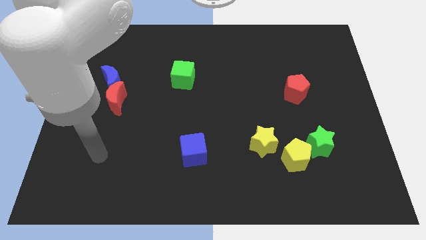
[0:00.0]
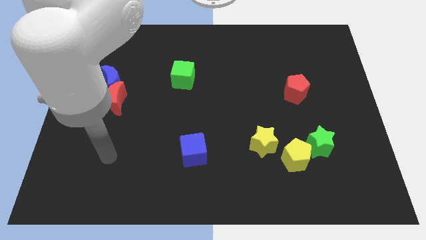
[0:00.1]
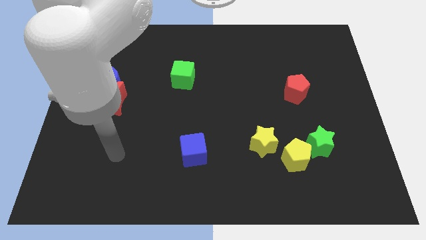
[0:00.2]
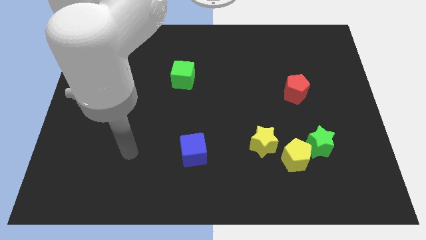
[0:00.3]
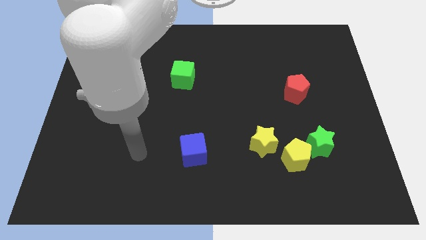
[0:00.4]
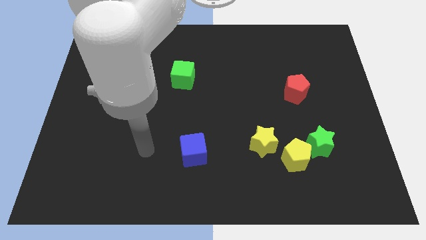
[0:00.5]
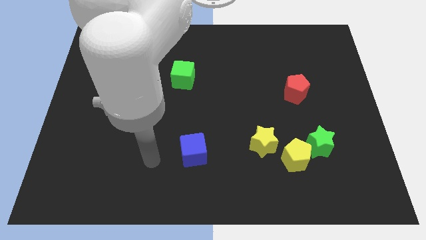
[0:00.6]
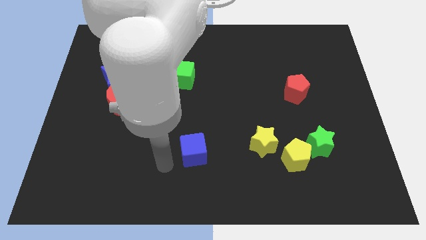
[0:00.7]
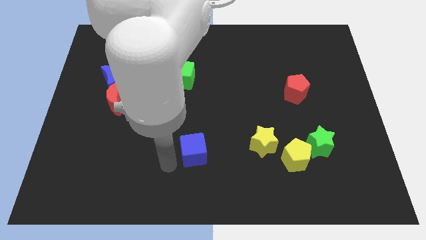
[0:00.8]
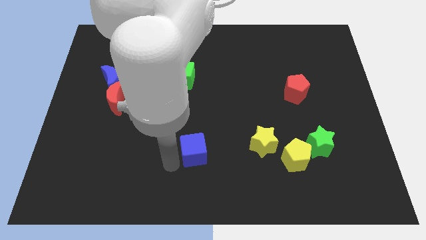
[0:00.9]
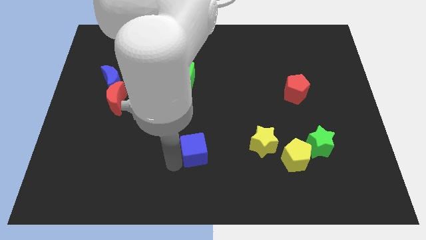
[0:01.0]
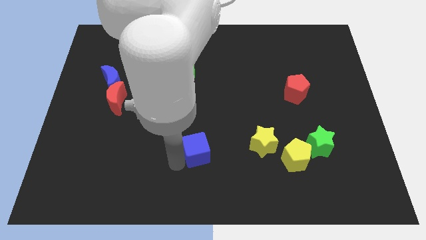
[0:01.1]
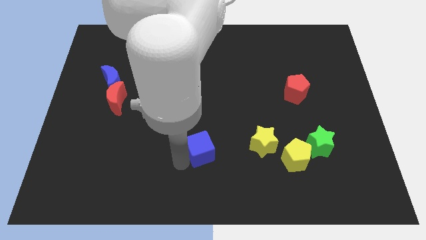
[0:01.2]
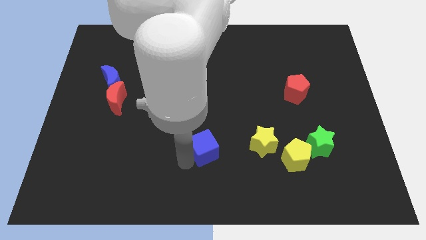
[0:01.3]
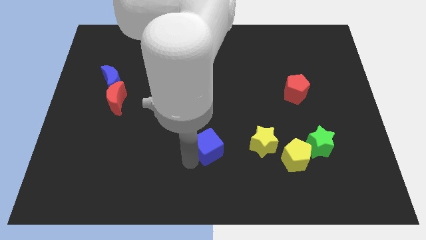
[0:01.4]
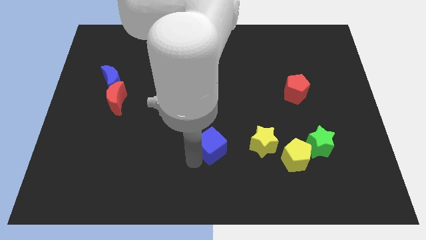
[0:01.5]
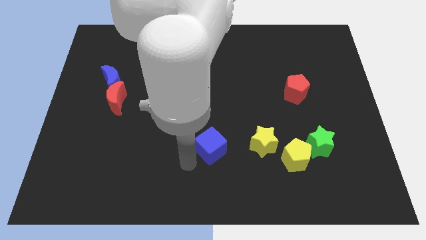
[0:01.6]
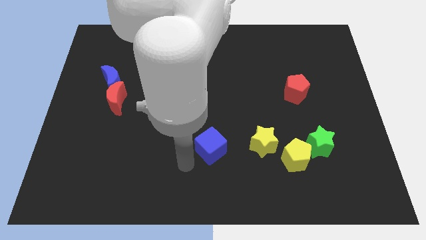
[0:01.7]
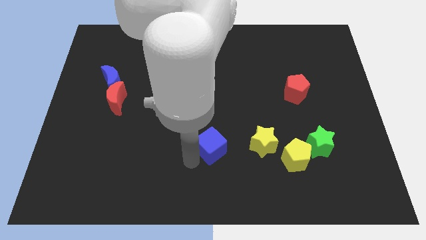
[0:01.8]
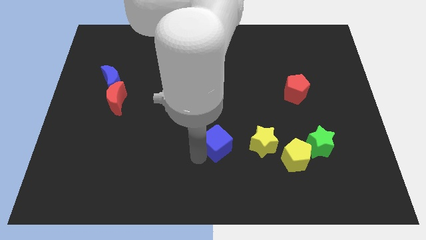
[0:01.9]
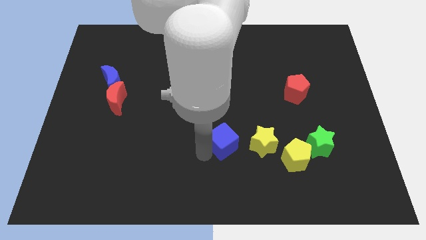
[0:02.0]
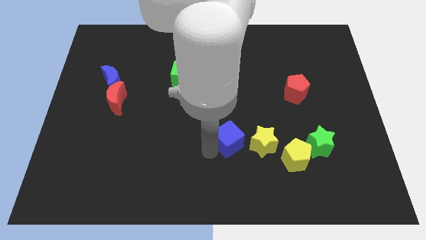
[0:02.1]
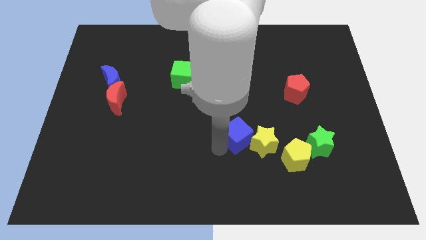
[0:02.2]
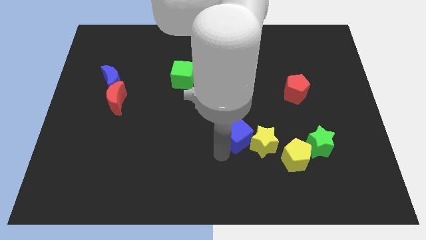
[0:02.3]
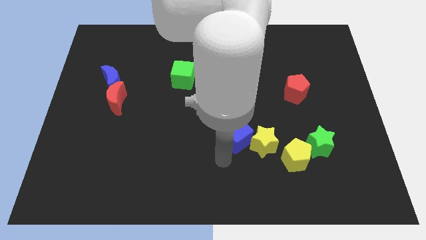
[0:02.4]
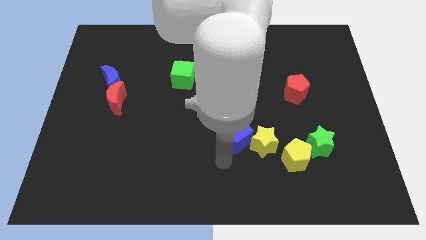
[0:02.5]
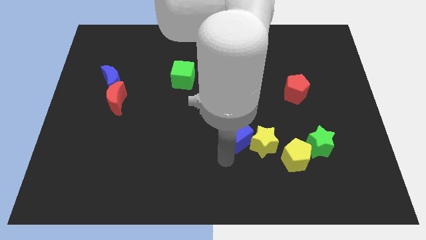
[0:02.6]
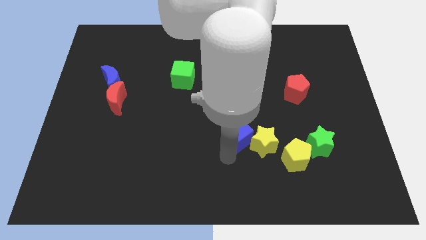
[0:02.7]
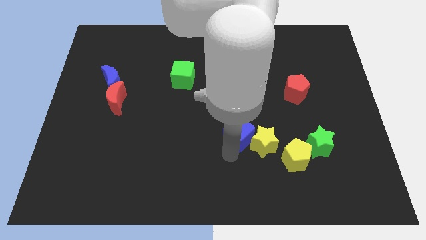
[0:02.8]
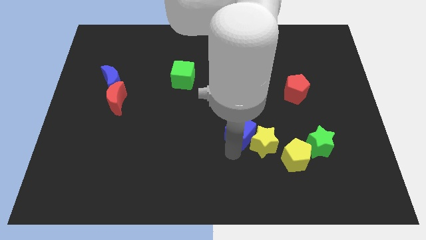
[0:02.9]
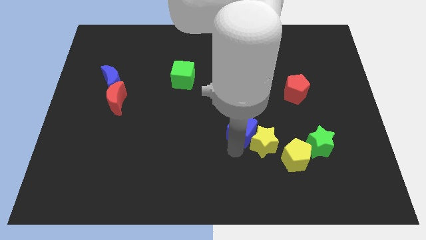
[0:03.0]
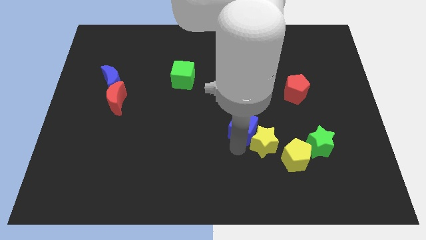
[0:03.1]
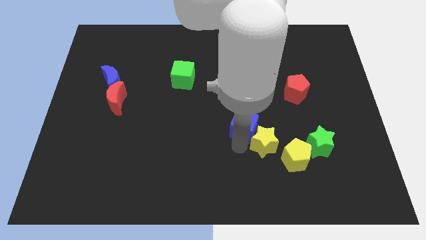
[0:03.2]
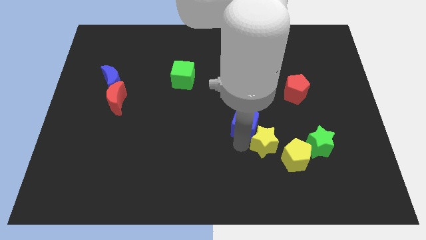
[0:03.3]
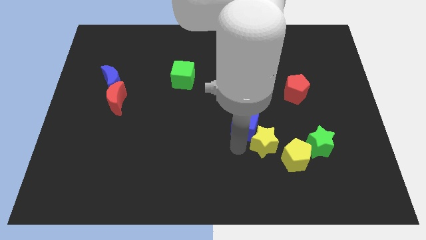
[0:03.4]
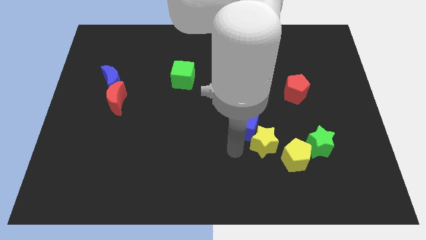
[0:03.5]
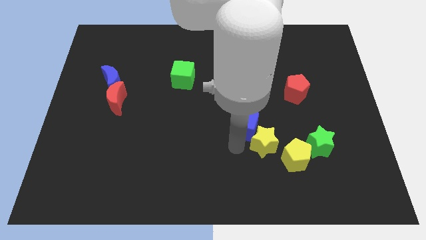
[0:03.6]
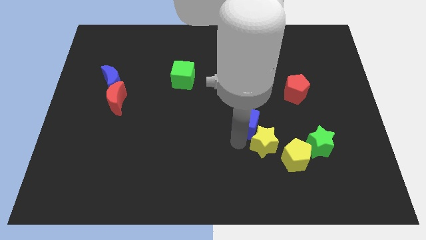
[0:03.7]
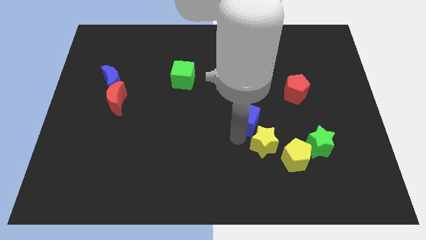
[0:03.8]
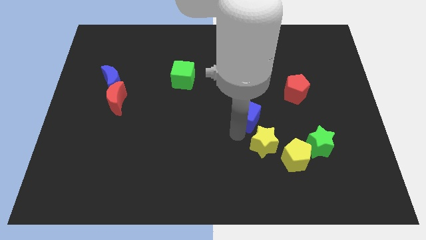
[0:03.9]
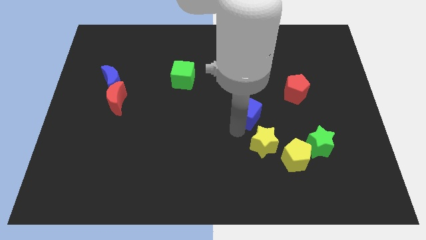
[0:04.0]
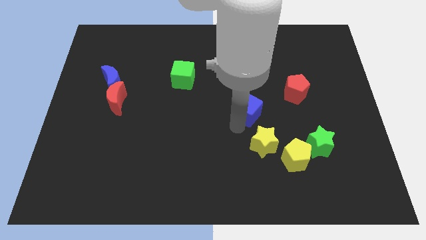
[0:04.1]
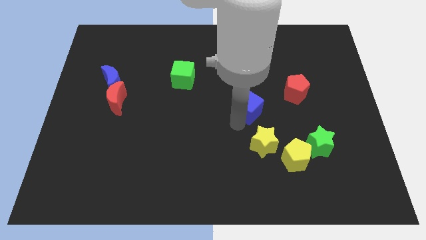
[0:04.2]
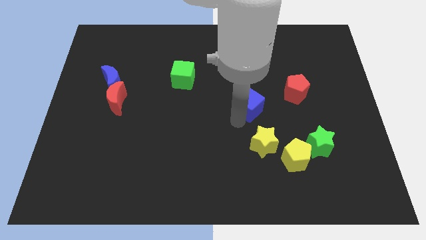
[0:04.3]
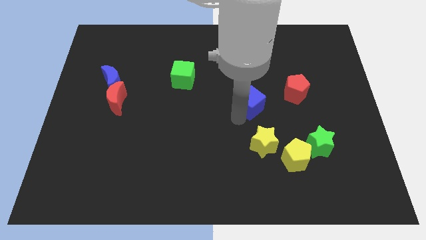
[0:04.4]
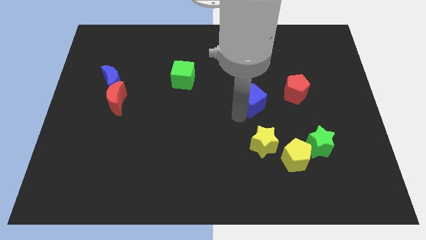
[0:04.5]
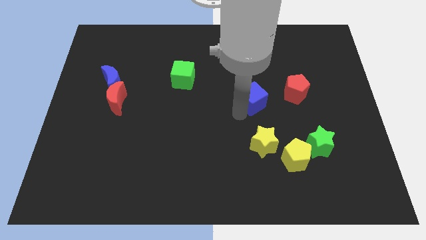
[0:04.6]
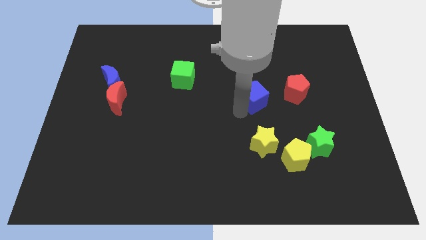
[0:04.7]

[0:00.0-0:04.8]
push the blue cube up and then right

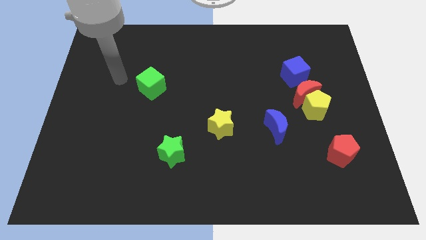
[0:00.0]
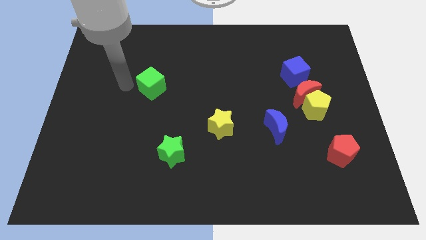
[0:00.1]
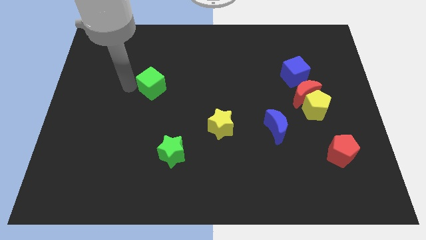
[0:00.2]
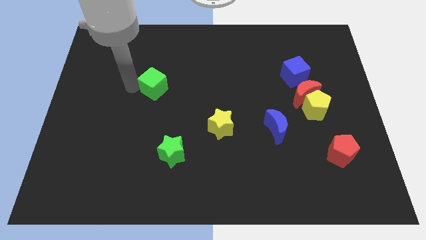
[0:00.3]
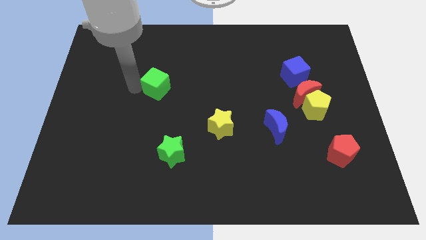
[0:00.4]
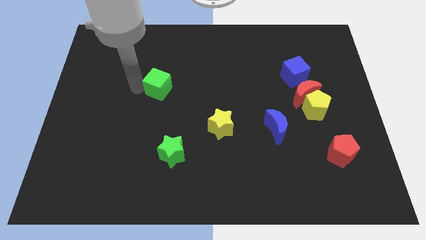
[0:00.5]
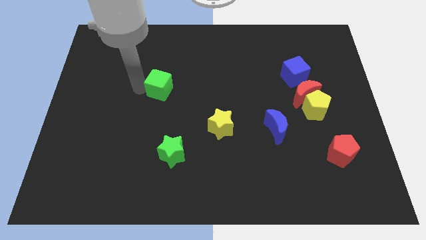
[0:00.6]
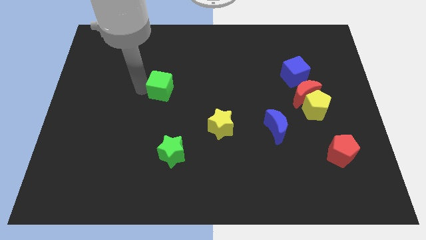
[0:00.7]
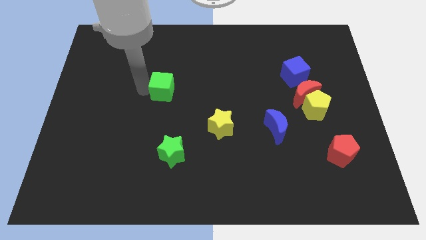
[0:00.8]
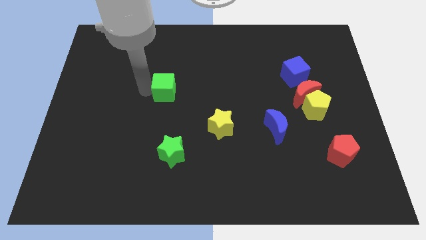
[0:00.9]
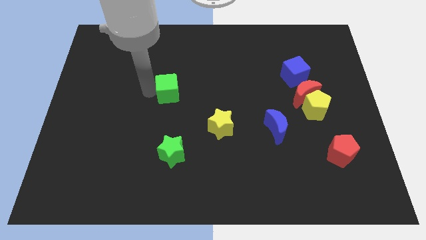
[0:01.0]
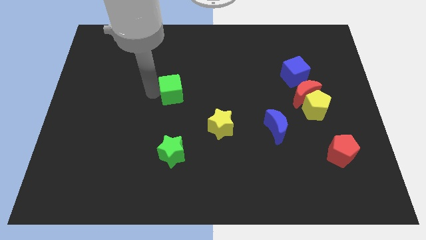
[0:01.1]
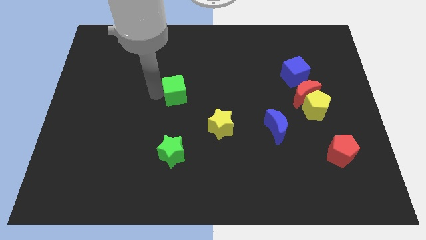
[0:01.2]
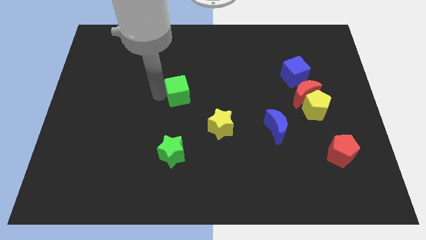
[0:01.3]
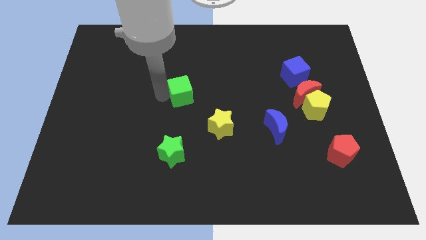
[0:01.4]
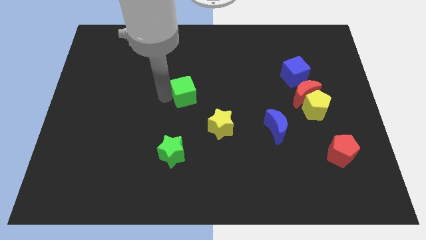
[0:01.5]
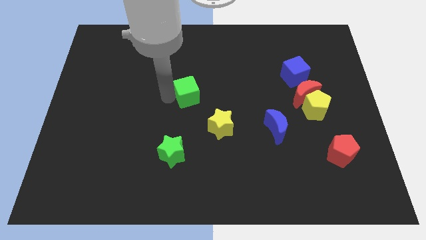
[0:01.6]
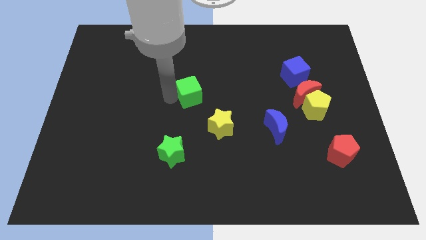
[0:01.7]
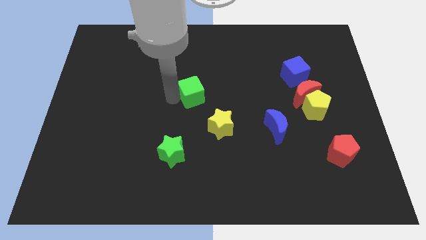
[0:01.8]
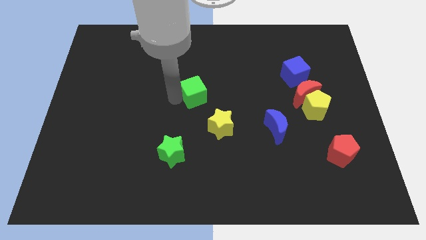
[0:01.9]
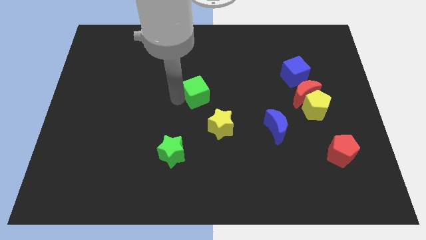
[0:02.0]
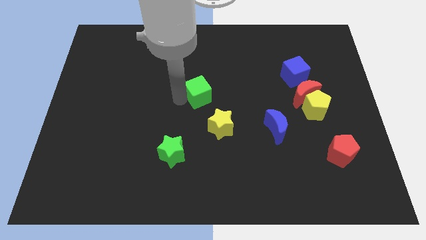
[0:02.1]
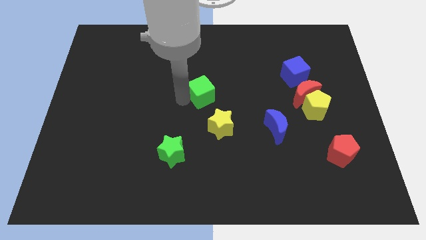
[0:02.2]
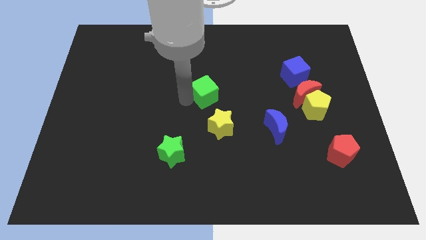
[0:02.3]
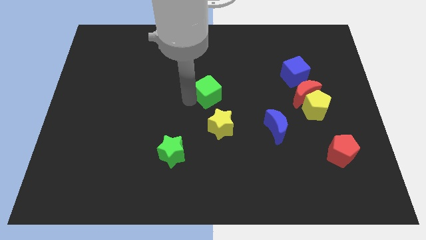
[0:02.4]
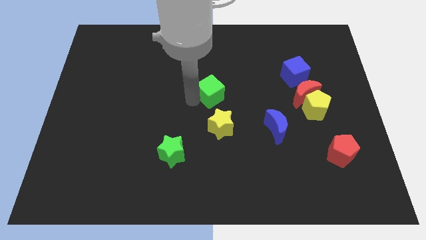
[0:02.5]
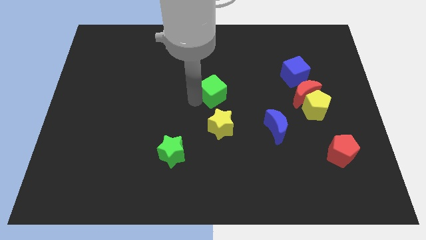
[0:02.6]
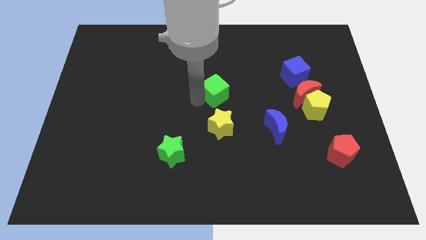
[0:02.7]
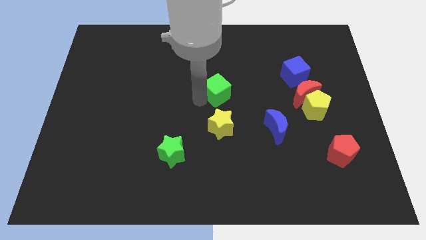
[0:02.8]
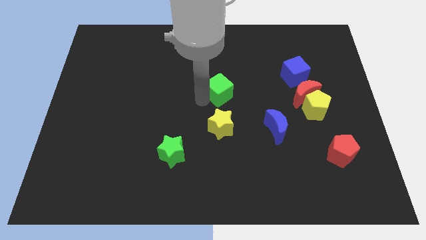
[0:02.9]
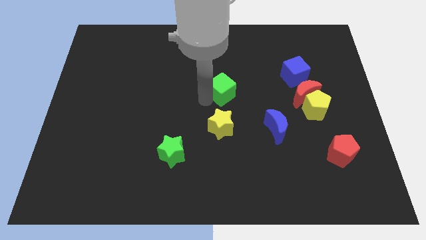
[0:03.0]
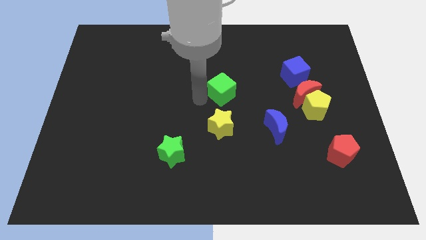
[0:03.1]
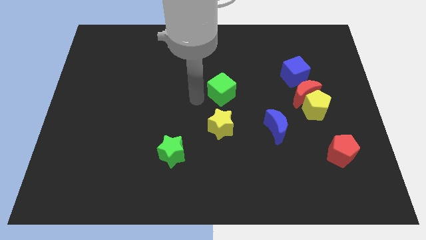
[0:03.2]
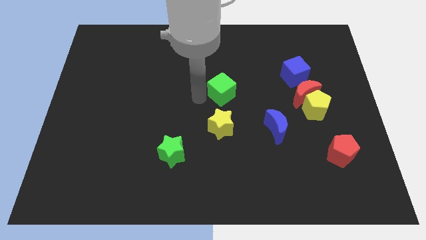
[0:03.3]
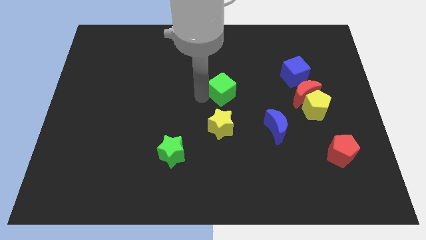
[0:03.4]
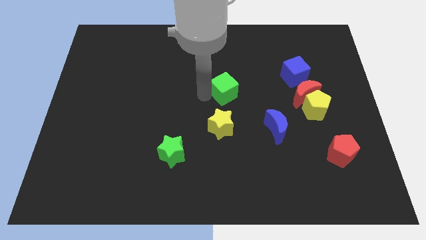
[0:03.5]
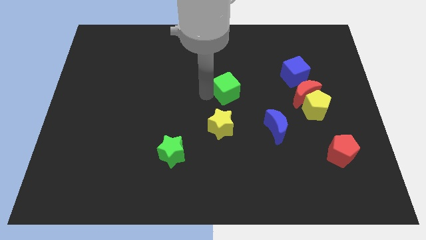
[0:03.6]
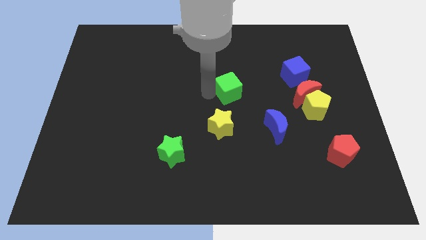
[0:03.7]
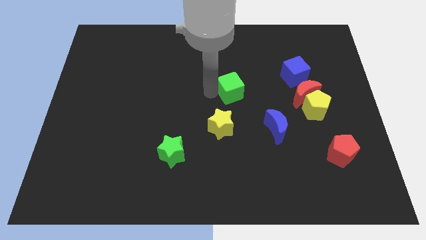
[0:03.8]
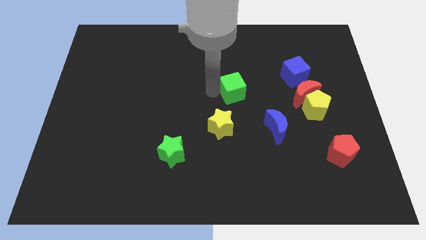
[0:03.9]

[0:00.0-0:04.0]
move the green cube right
